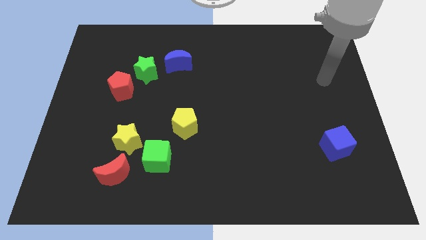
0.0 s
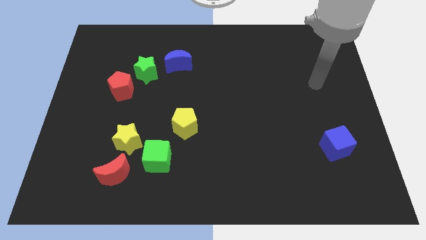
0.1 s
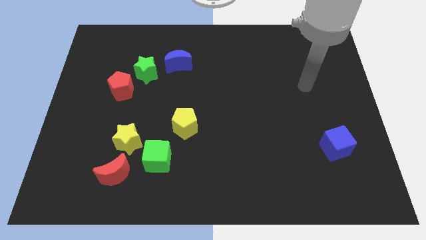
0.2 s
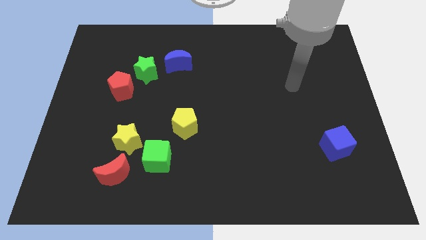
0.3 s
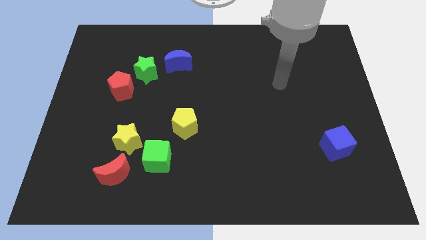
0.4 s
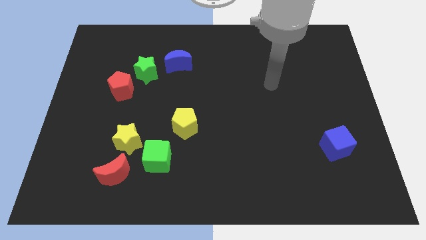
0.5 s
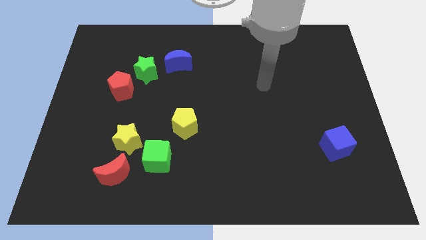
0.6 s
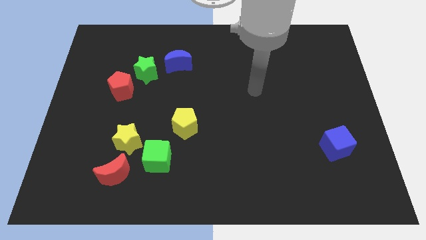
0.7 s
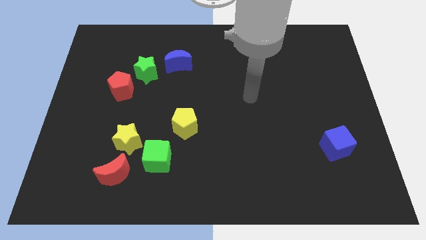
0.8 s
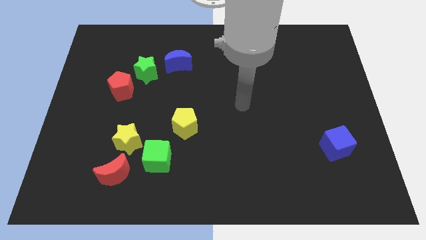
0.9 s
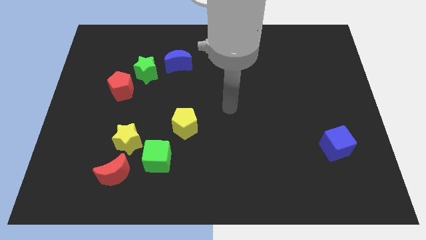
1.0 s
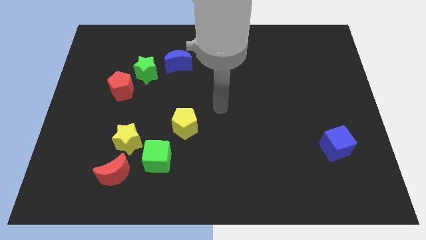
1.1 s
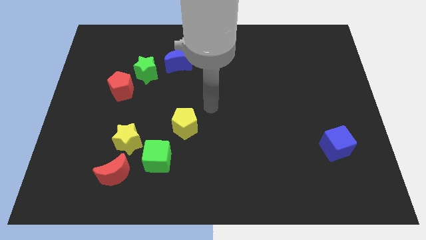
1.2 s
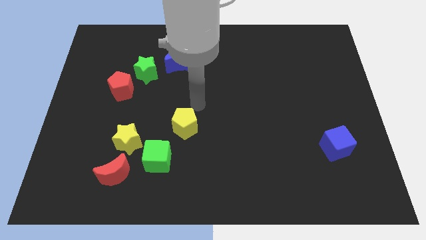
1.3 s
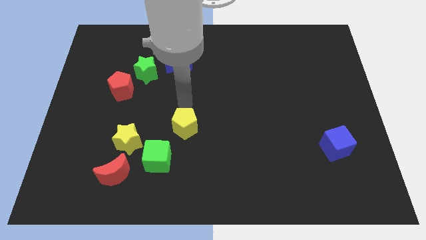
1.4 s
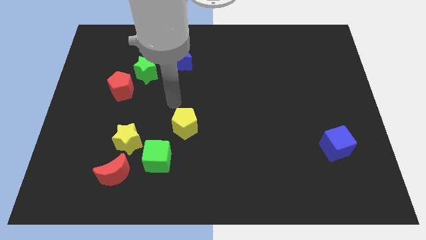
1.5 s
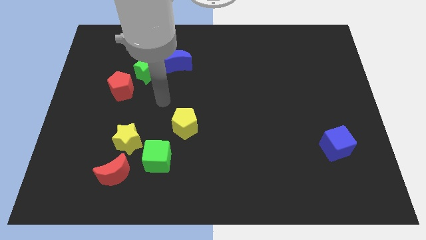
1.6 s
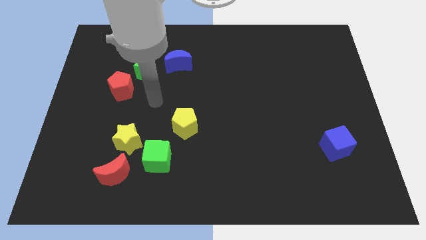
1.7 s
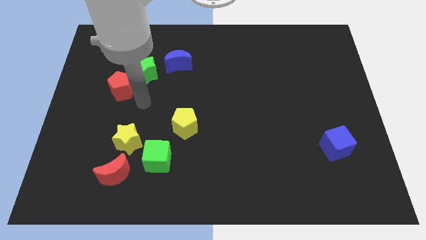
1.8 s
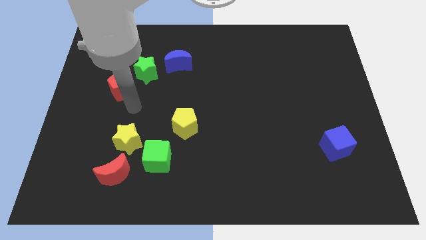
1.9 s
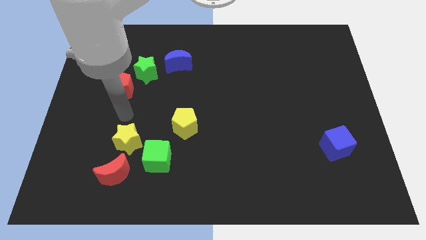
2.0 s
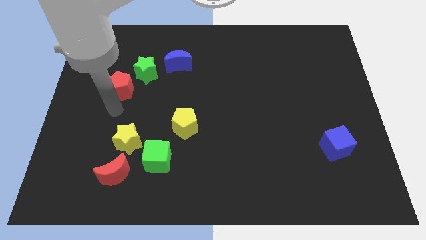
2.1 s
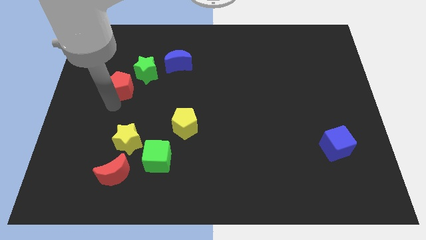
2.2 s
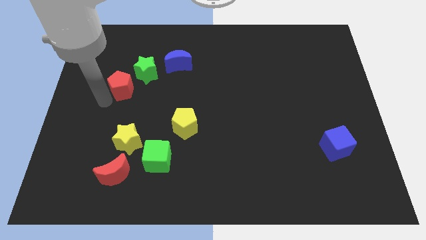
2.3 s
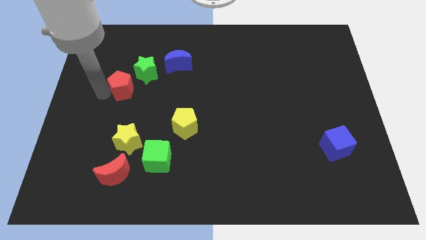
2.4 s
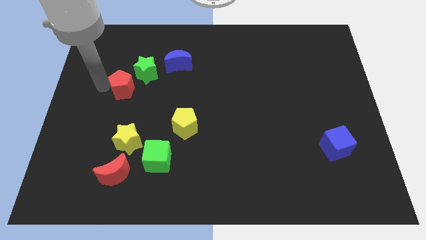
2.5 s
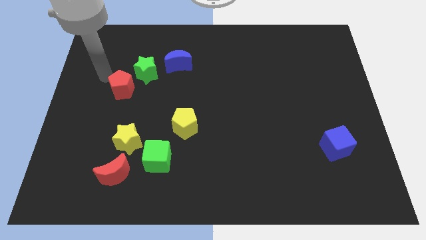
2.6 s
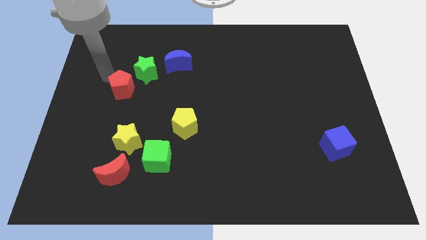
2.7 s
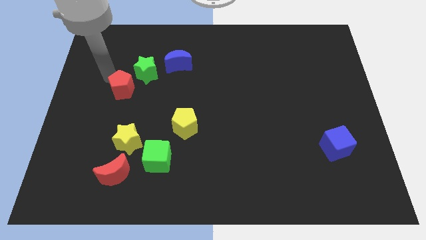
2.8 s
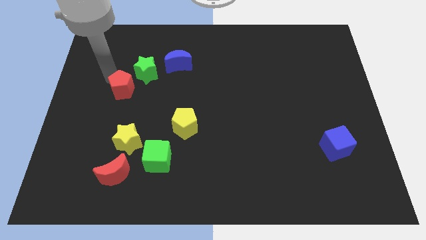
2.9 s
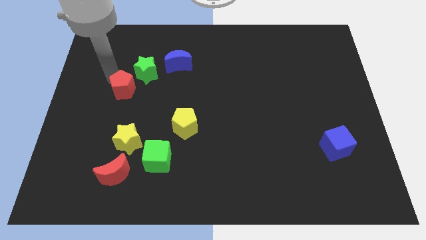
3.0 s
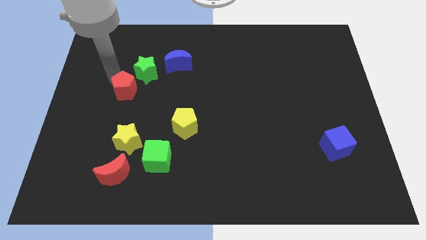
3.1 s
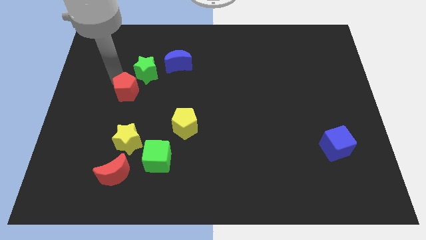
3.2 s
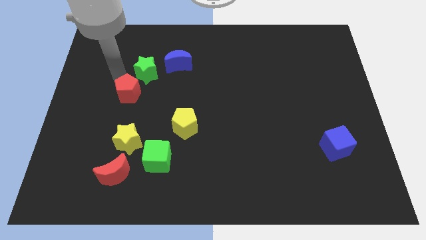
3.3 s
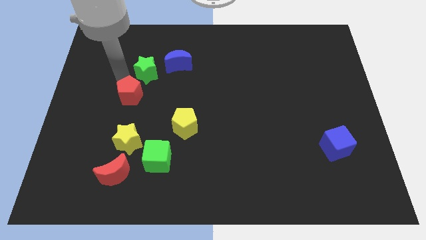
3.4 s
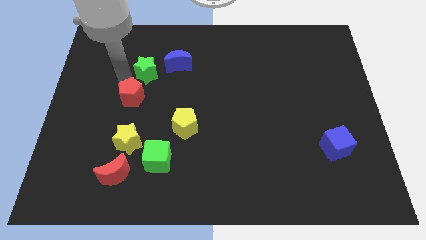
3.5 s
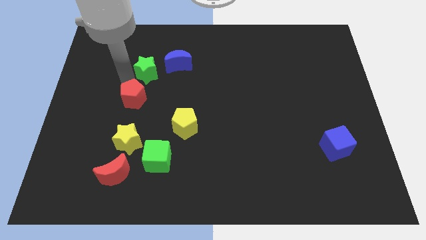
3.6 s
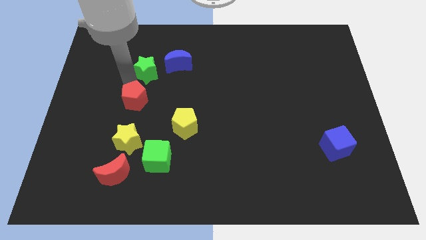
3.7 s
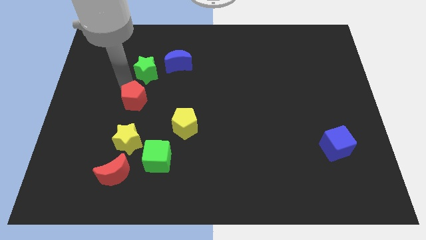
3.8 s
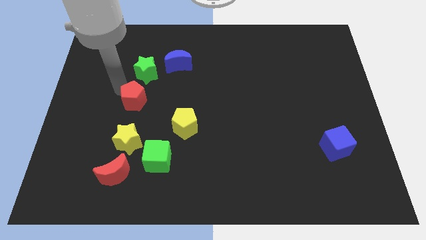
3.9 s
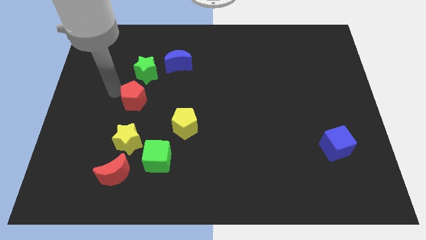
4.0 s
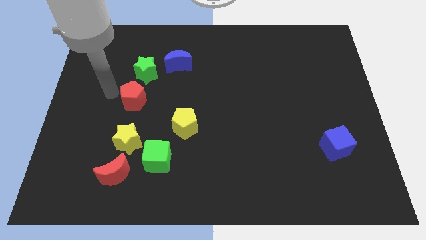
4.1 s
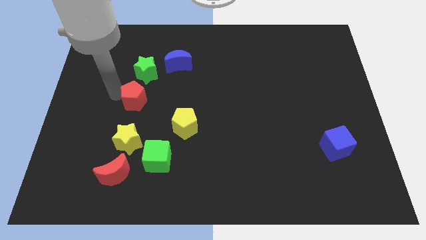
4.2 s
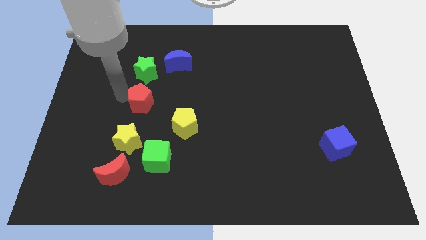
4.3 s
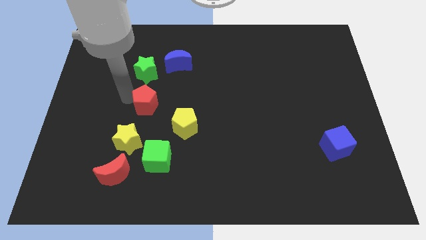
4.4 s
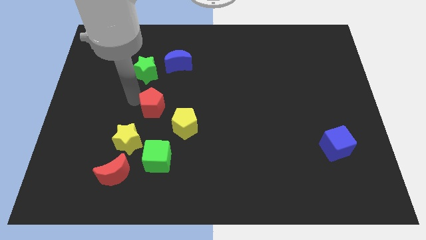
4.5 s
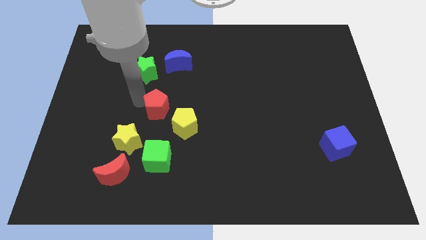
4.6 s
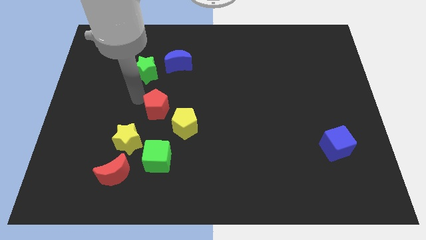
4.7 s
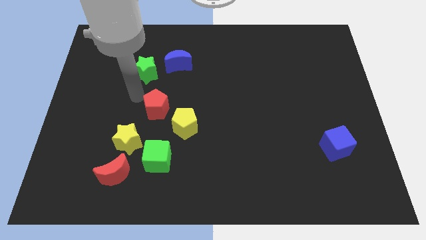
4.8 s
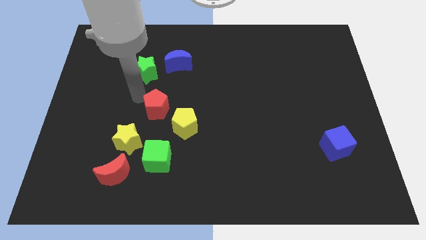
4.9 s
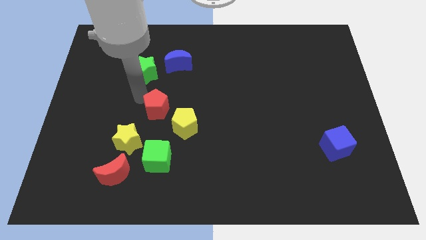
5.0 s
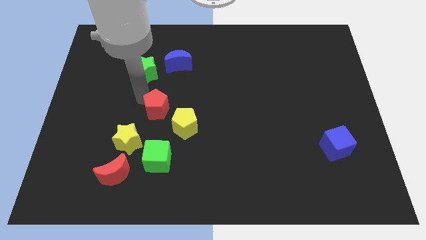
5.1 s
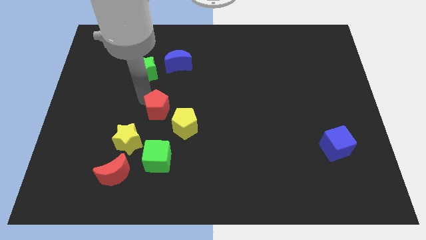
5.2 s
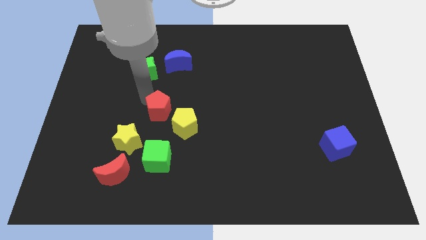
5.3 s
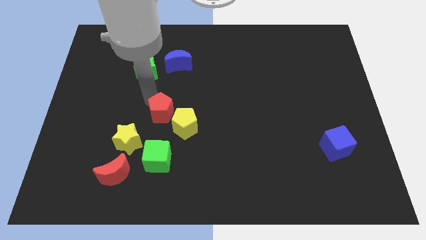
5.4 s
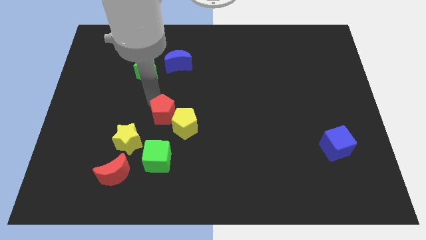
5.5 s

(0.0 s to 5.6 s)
put the red pentagon towards the yellow pentagon

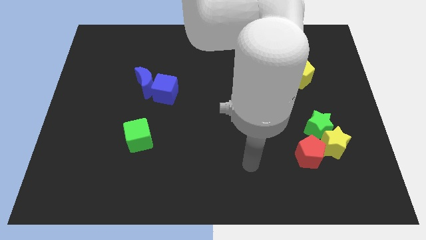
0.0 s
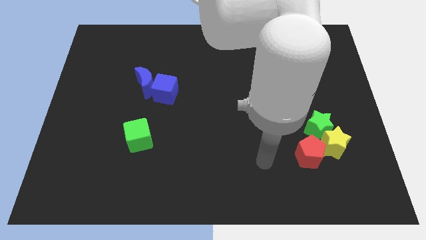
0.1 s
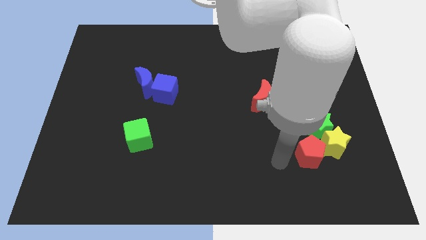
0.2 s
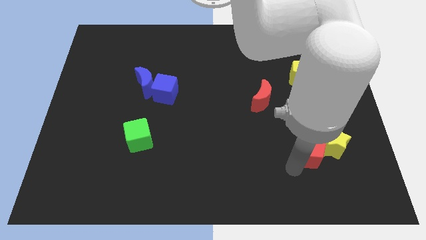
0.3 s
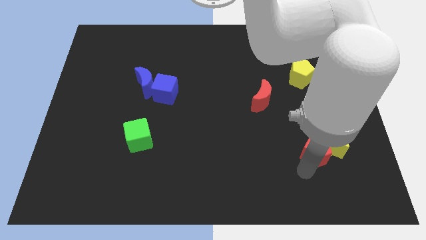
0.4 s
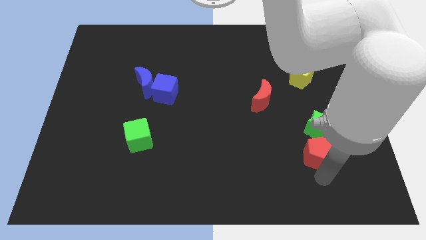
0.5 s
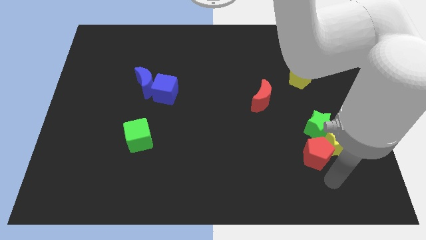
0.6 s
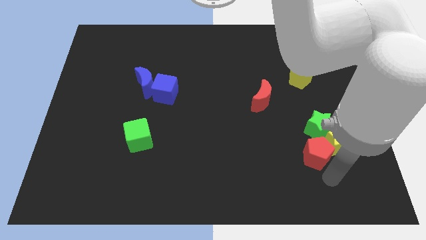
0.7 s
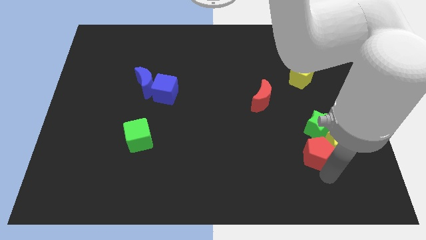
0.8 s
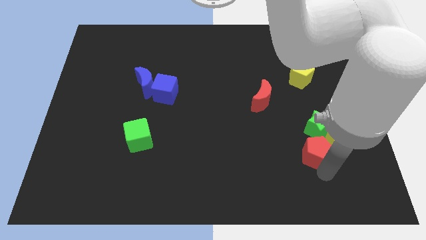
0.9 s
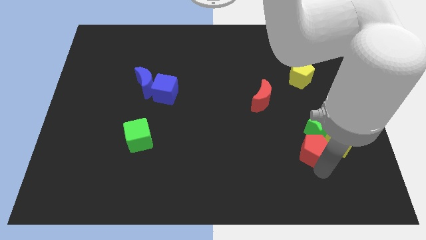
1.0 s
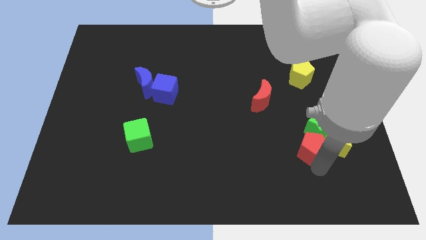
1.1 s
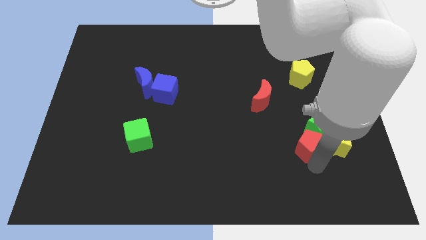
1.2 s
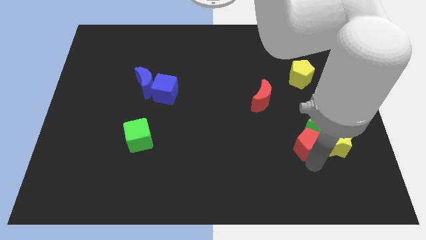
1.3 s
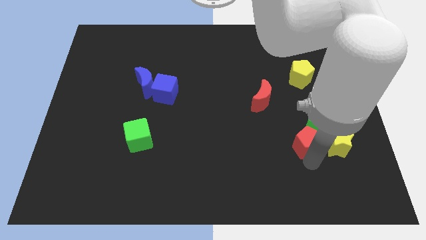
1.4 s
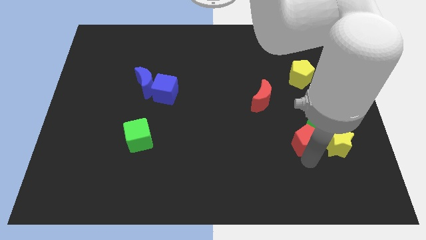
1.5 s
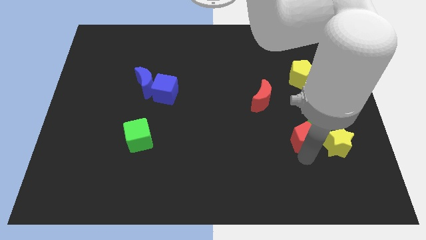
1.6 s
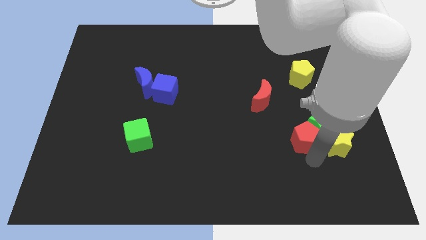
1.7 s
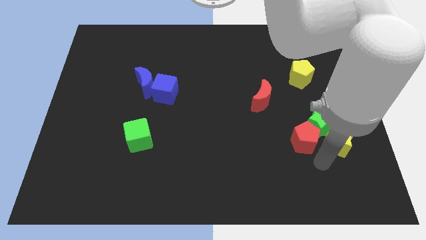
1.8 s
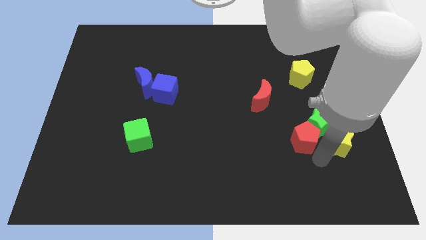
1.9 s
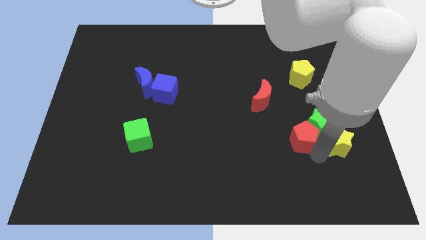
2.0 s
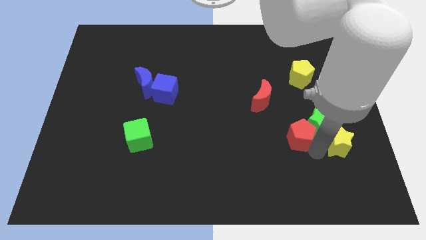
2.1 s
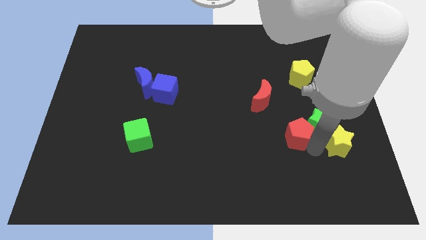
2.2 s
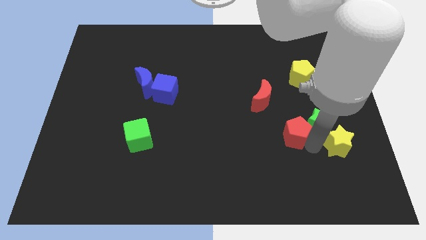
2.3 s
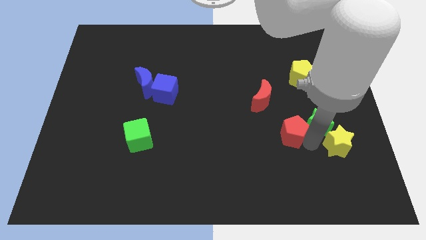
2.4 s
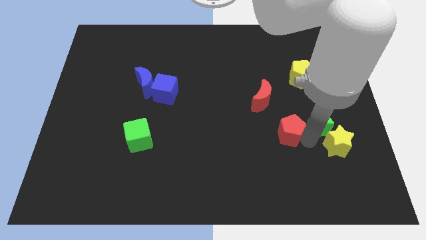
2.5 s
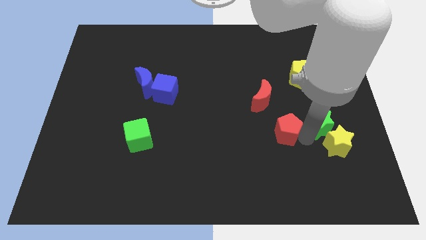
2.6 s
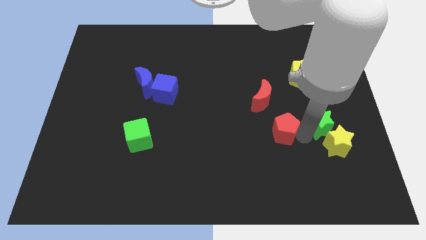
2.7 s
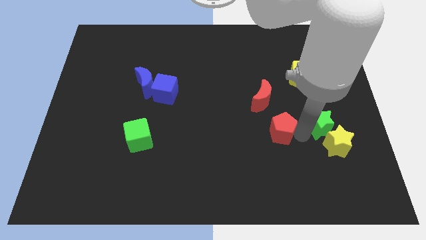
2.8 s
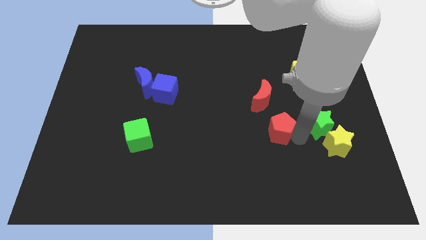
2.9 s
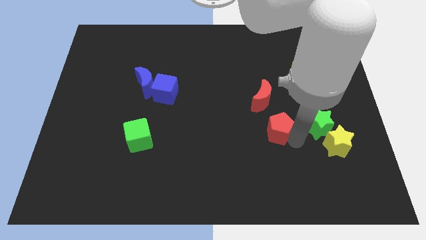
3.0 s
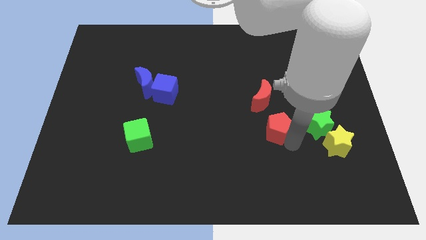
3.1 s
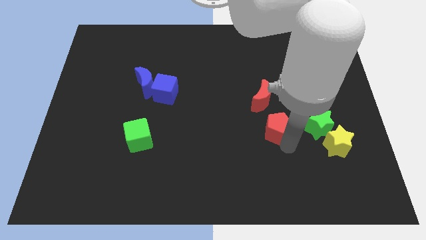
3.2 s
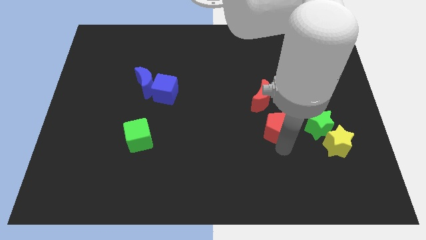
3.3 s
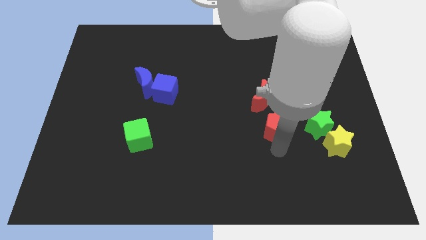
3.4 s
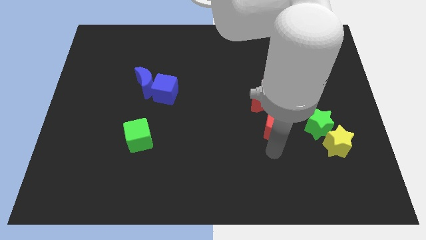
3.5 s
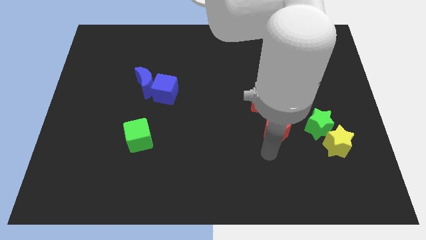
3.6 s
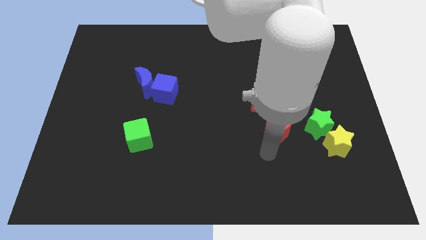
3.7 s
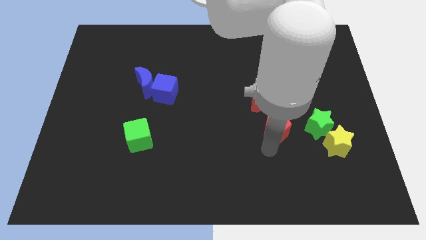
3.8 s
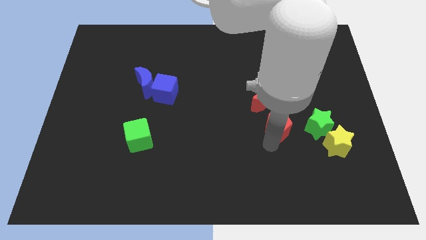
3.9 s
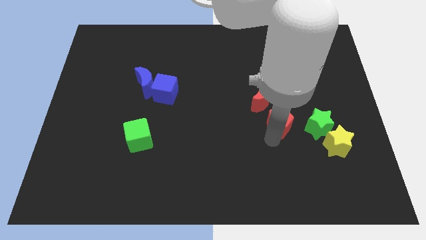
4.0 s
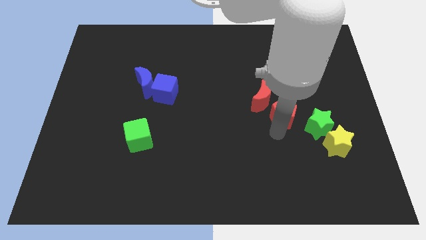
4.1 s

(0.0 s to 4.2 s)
push the red pentagon close to the red moon
